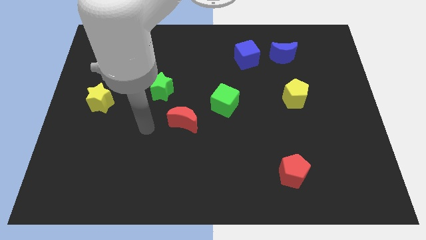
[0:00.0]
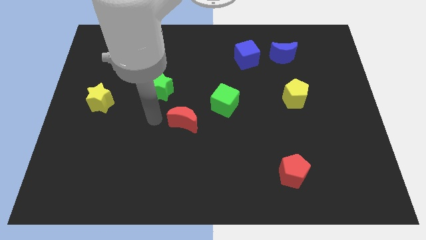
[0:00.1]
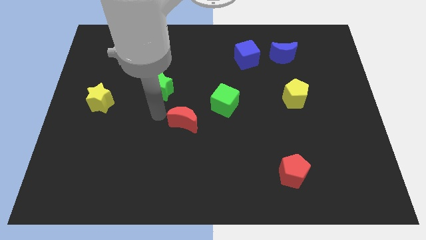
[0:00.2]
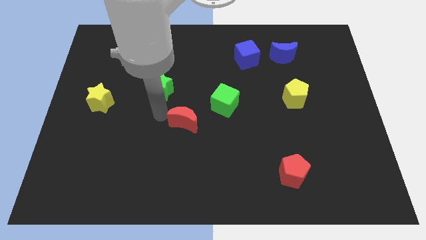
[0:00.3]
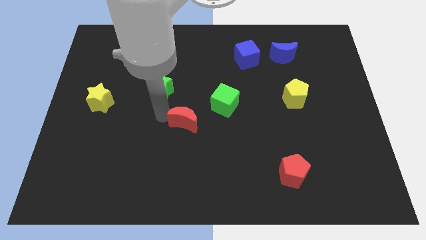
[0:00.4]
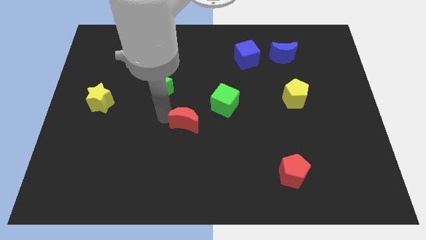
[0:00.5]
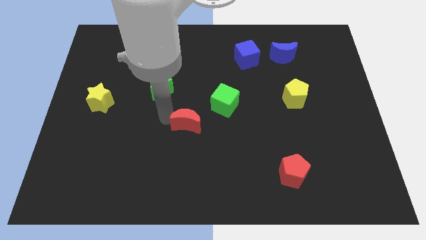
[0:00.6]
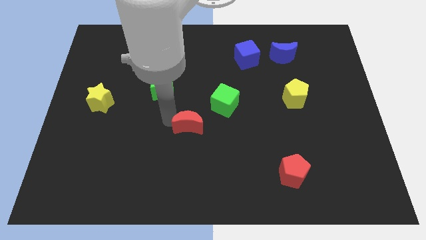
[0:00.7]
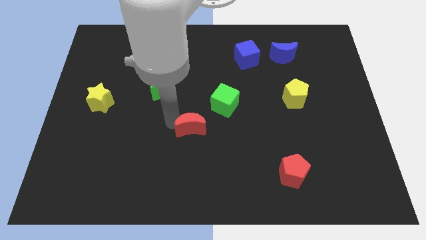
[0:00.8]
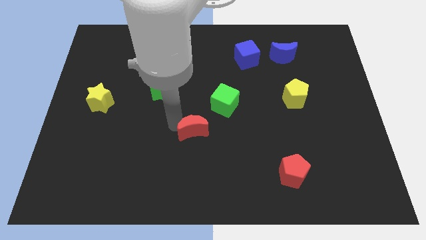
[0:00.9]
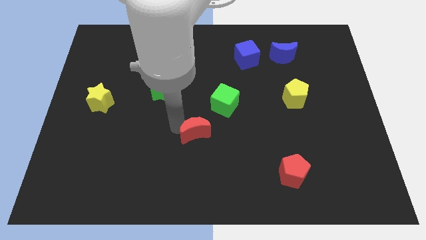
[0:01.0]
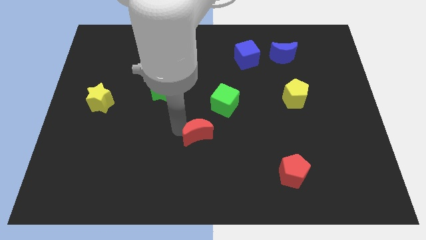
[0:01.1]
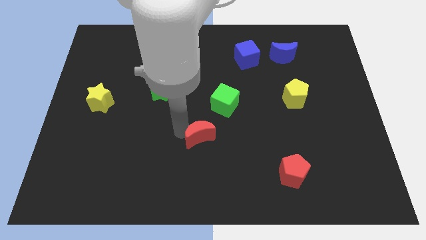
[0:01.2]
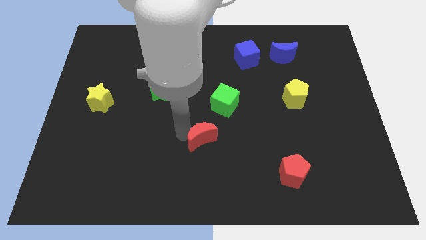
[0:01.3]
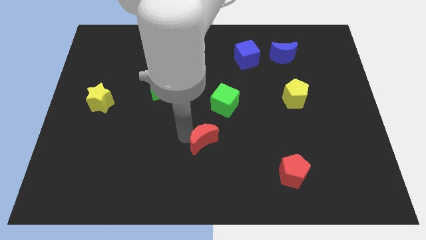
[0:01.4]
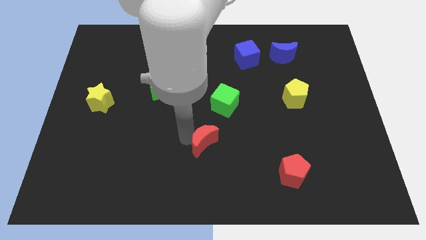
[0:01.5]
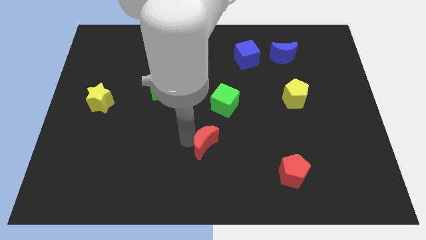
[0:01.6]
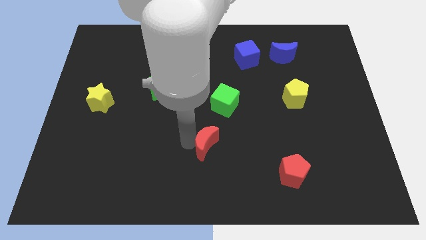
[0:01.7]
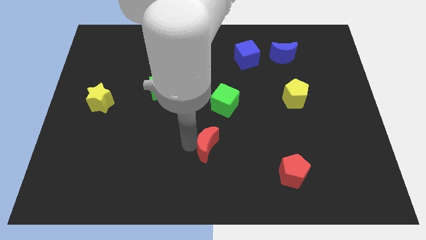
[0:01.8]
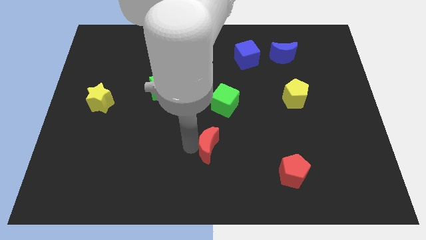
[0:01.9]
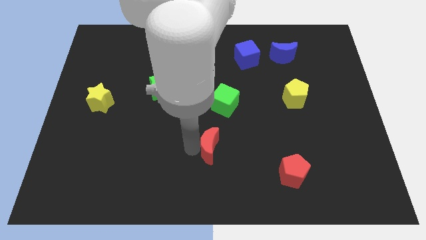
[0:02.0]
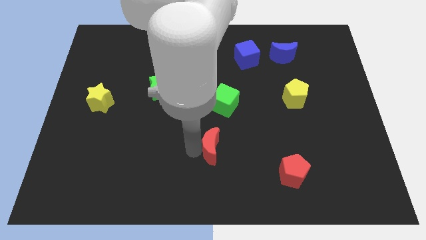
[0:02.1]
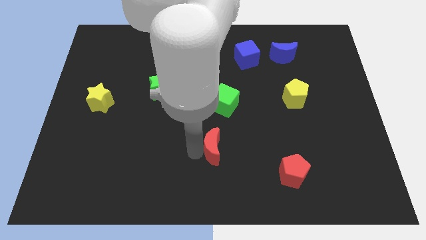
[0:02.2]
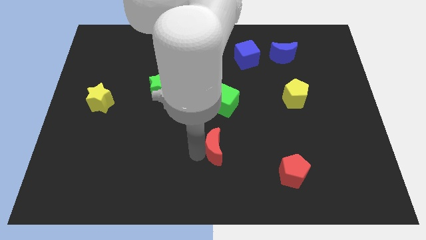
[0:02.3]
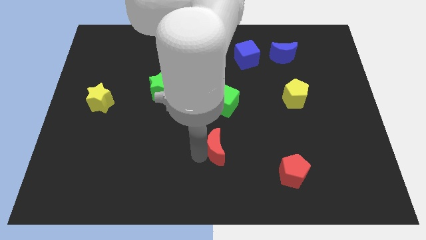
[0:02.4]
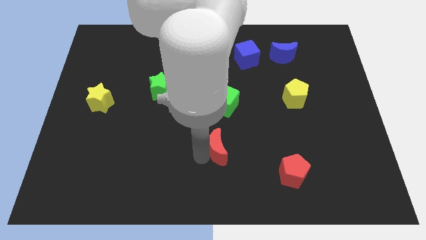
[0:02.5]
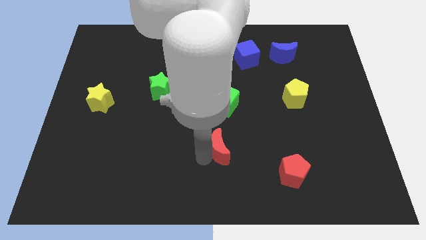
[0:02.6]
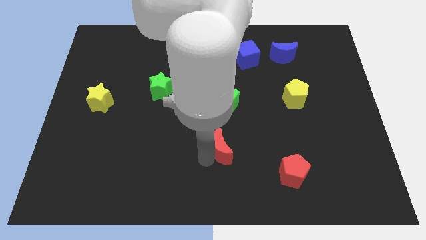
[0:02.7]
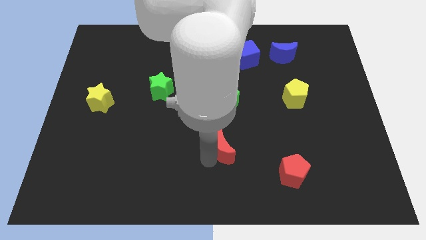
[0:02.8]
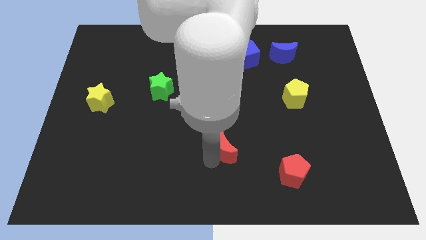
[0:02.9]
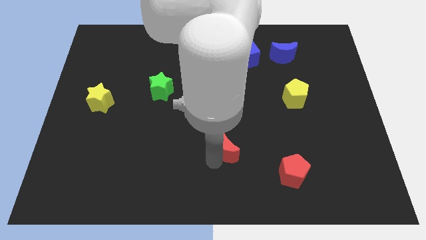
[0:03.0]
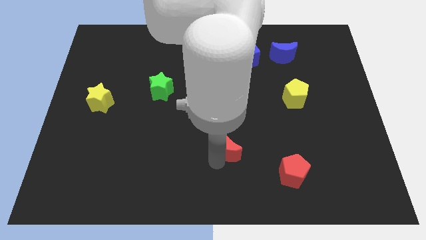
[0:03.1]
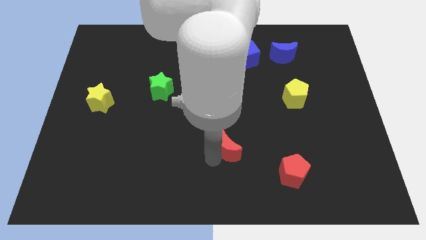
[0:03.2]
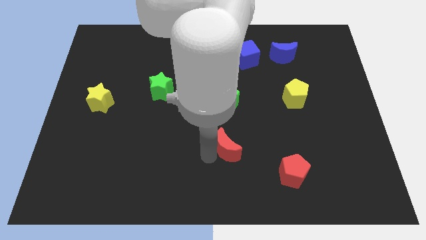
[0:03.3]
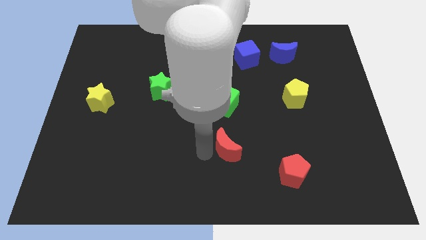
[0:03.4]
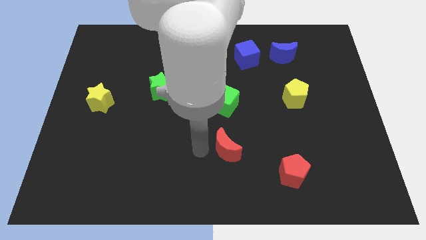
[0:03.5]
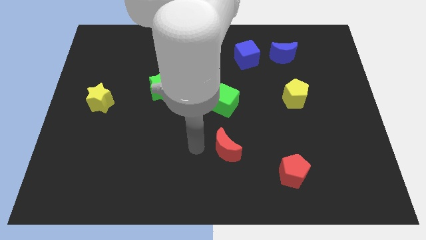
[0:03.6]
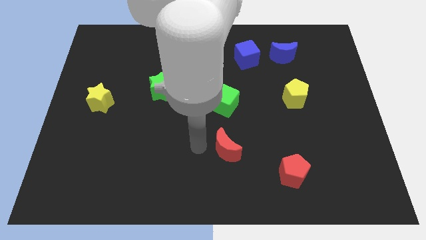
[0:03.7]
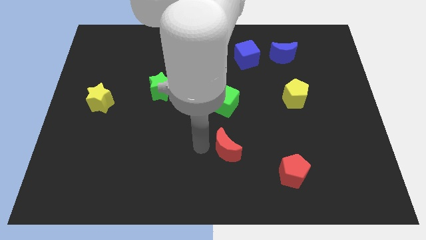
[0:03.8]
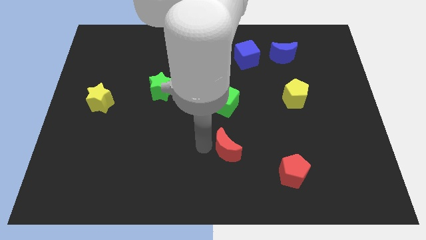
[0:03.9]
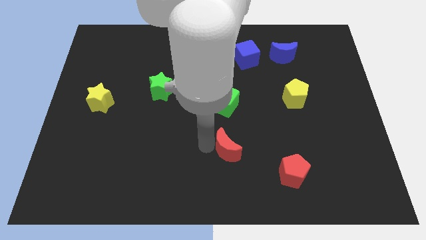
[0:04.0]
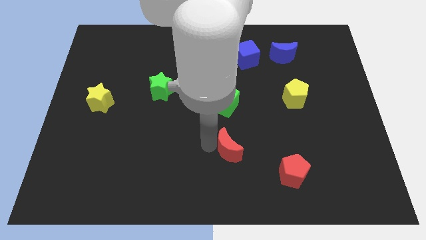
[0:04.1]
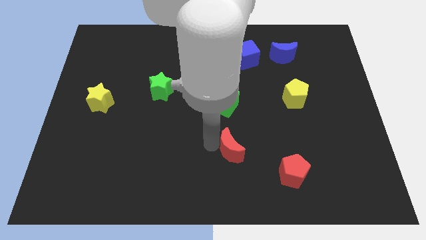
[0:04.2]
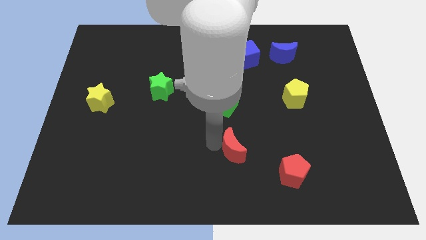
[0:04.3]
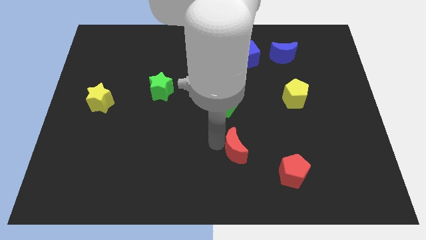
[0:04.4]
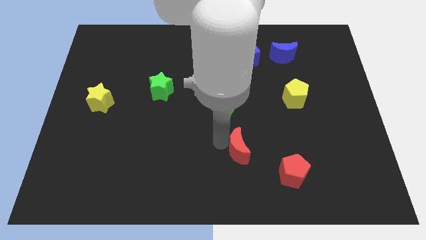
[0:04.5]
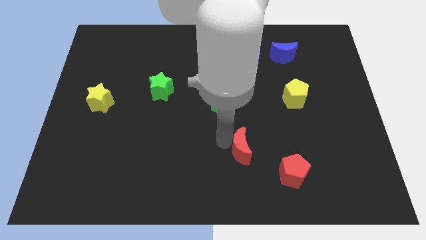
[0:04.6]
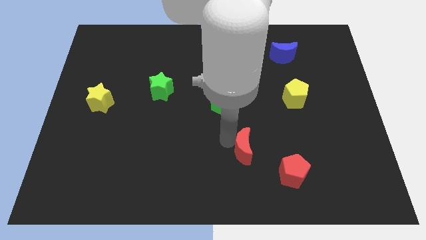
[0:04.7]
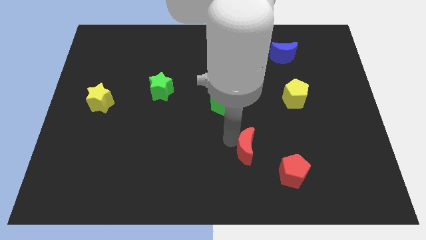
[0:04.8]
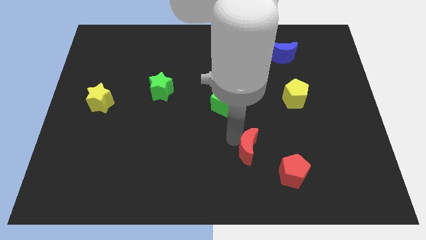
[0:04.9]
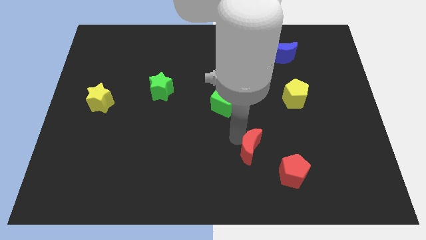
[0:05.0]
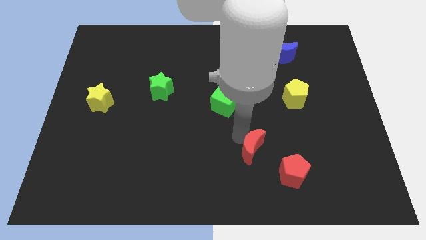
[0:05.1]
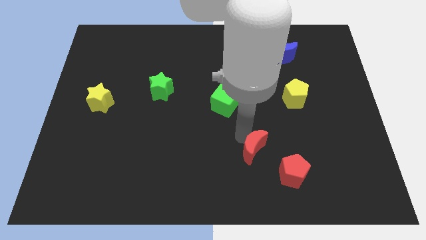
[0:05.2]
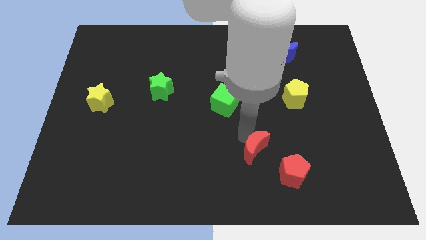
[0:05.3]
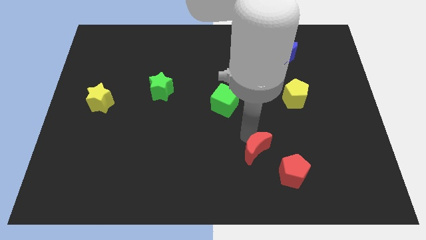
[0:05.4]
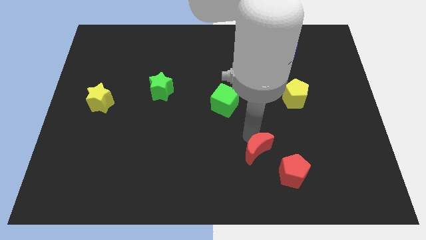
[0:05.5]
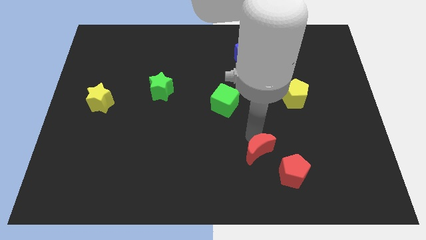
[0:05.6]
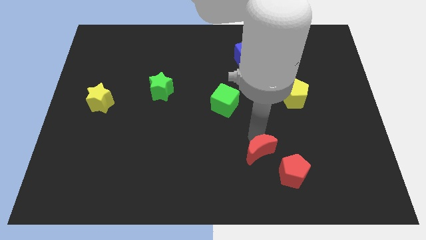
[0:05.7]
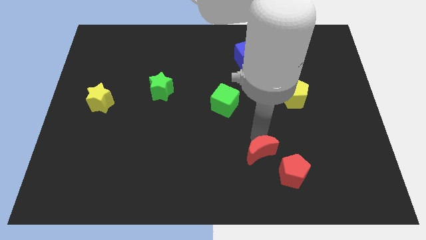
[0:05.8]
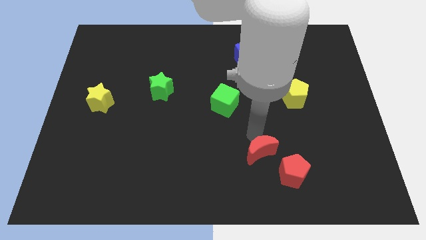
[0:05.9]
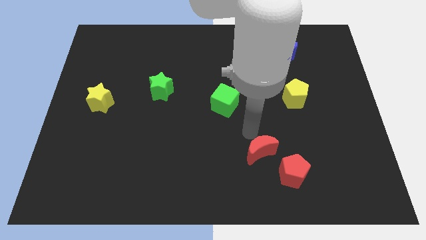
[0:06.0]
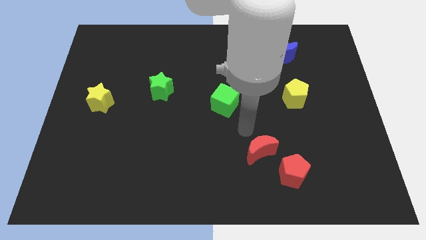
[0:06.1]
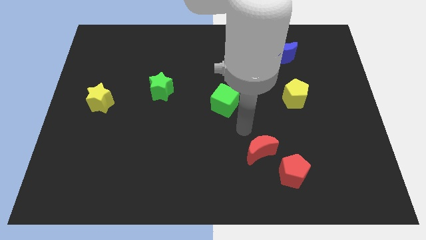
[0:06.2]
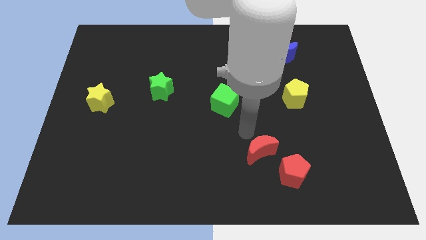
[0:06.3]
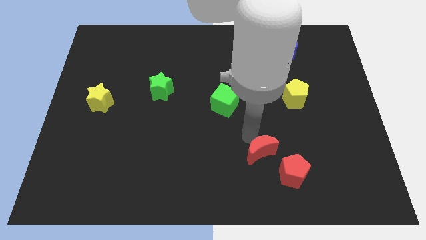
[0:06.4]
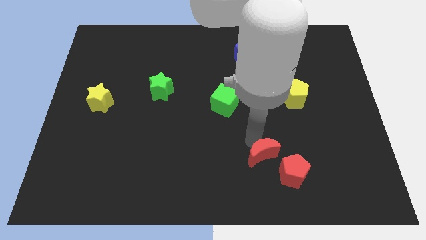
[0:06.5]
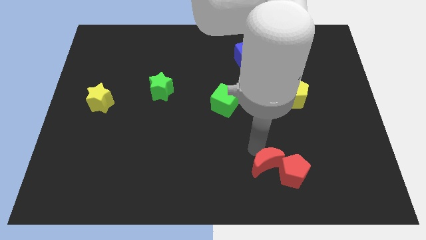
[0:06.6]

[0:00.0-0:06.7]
put the red moon close to the red pentagon
